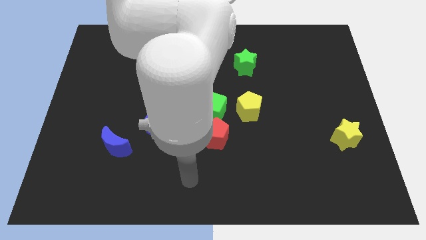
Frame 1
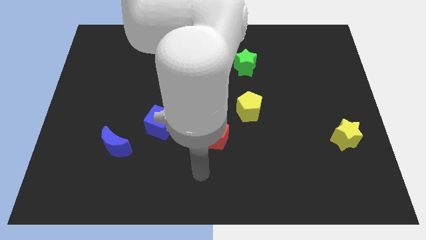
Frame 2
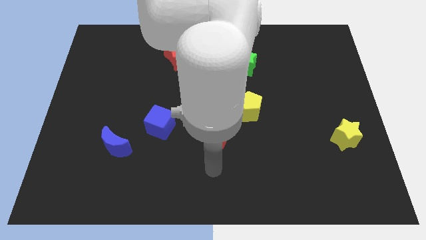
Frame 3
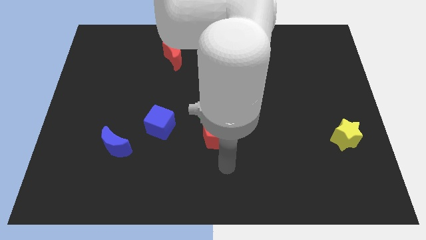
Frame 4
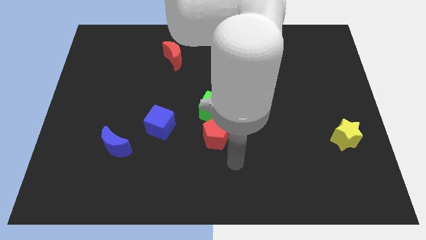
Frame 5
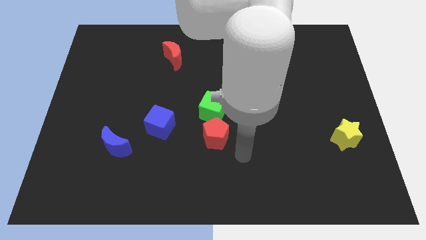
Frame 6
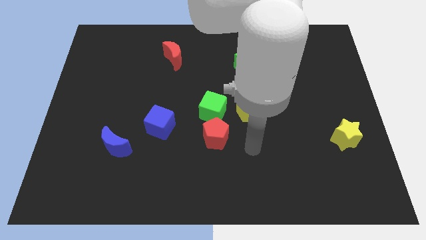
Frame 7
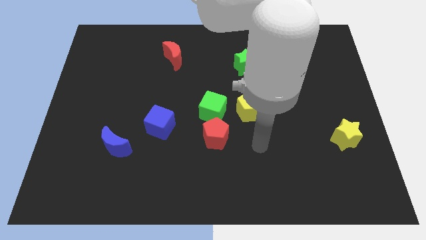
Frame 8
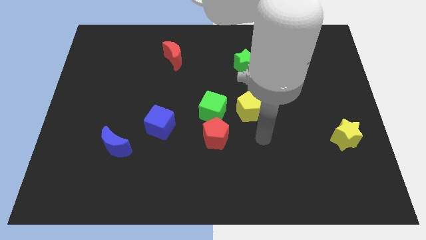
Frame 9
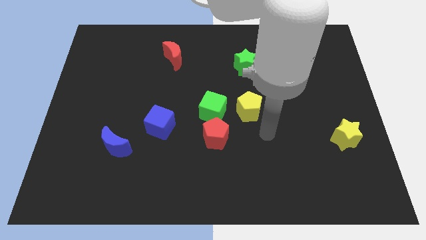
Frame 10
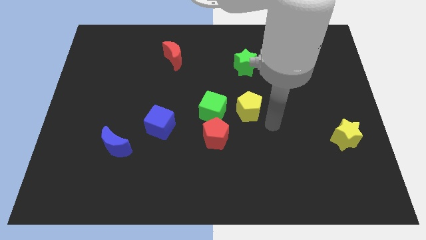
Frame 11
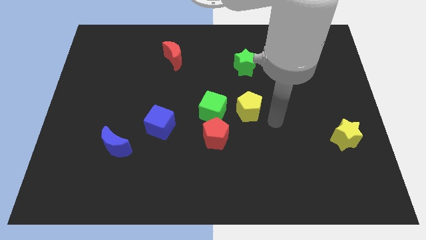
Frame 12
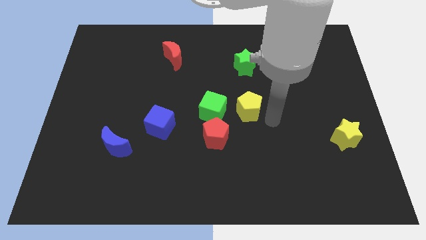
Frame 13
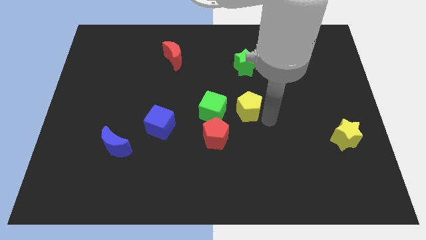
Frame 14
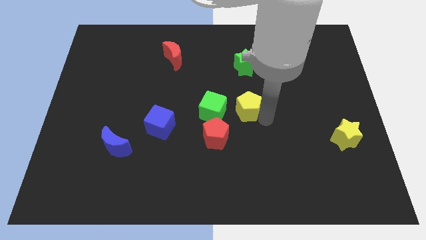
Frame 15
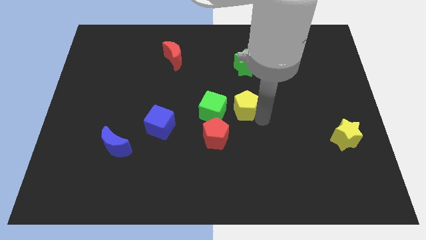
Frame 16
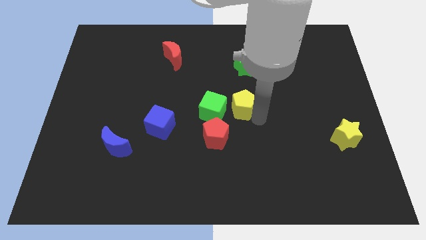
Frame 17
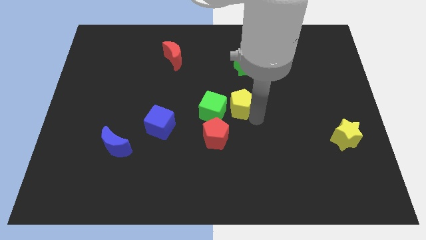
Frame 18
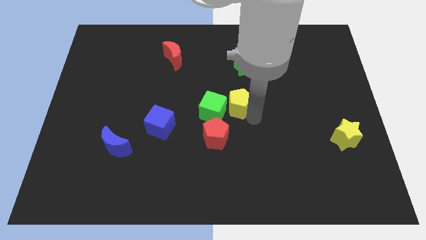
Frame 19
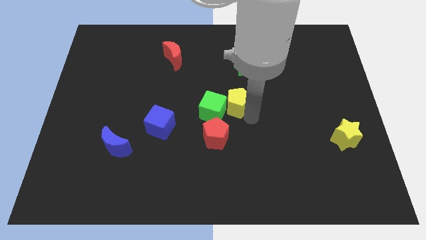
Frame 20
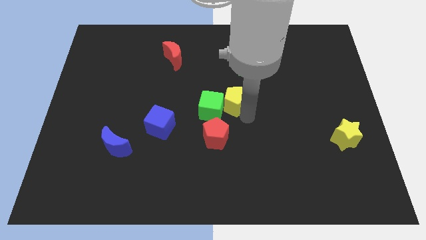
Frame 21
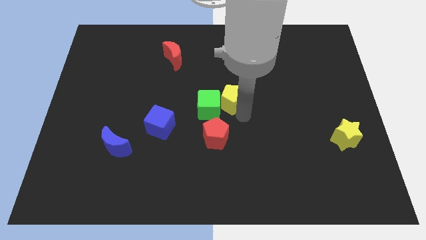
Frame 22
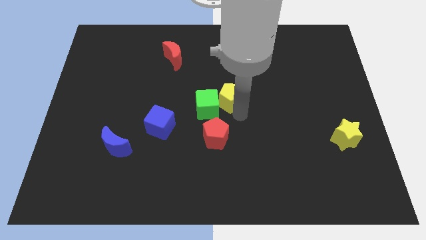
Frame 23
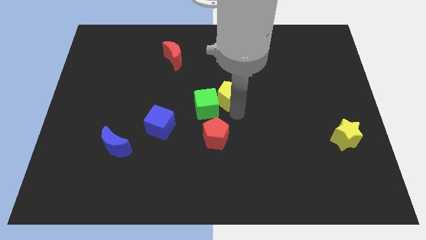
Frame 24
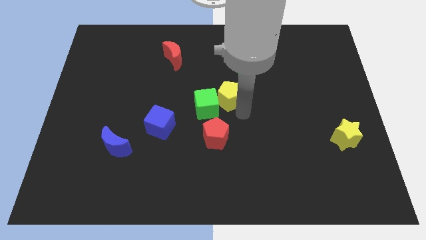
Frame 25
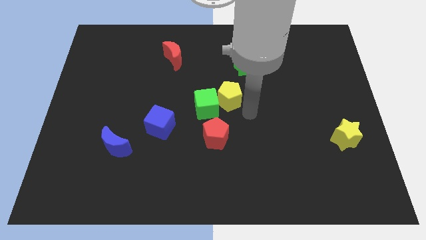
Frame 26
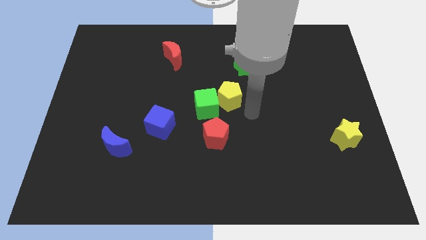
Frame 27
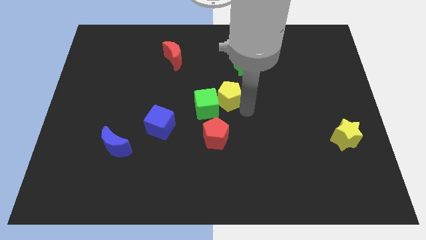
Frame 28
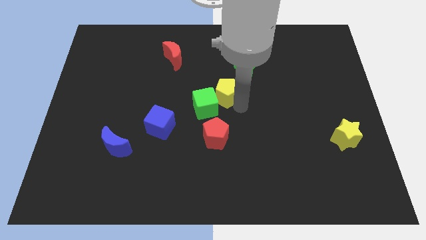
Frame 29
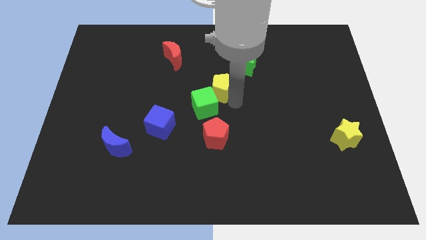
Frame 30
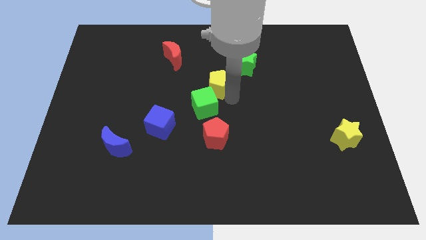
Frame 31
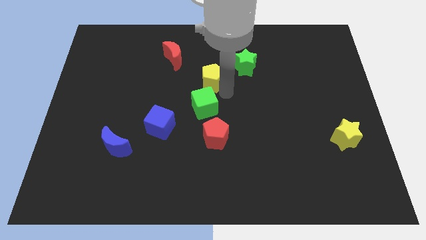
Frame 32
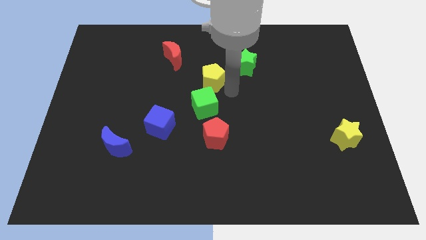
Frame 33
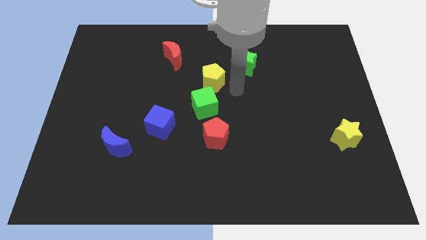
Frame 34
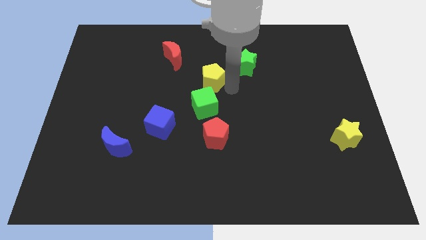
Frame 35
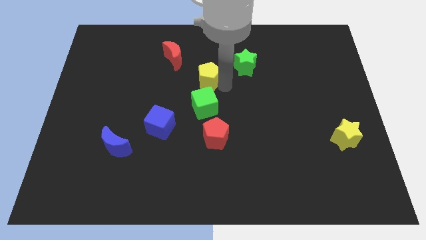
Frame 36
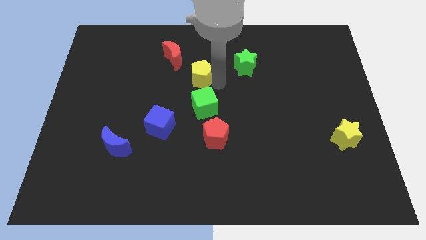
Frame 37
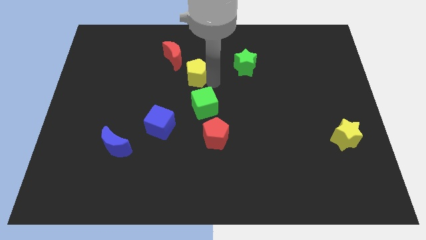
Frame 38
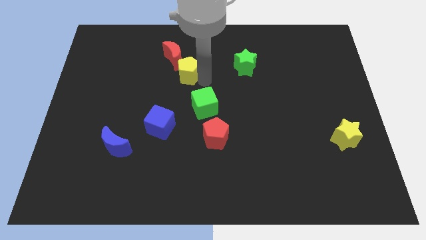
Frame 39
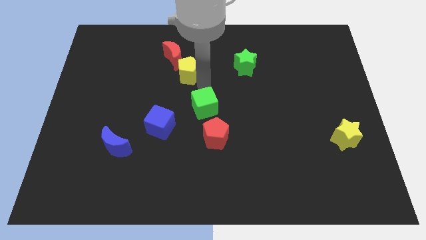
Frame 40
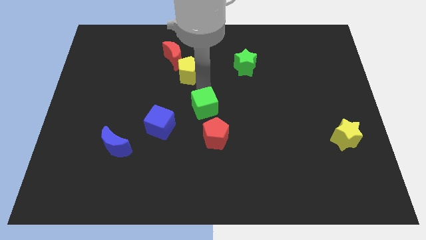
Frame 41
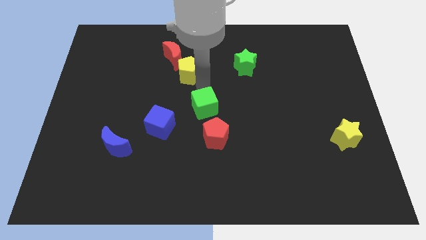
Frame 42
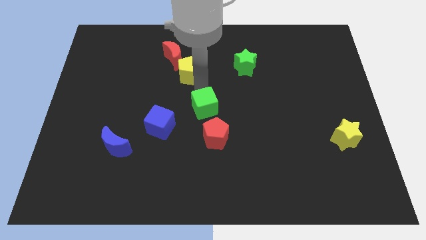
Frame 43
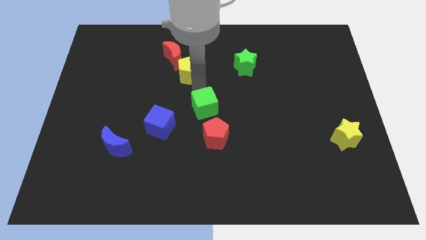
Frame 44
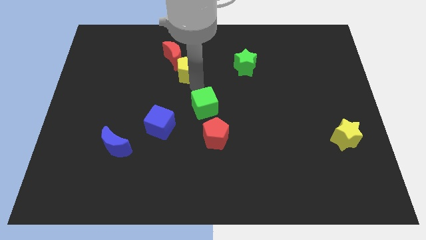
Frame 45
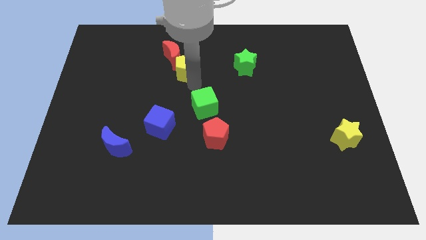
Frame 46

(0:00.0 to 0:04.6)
push the yellow pentagon towards the red moon

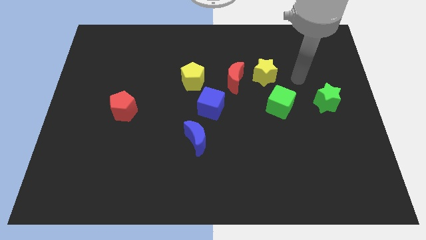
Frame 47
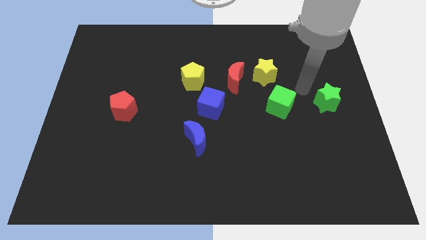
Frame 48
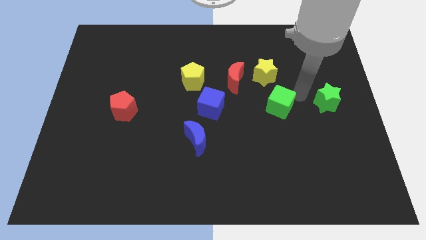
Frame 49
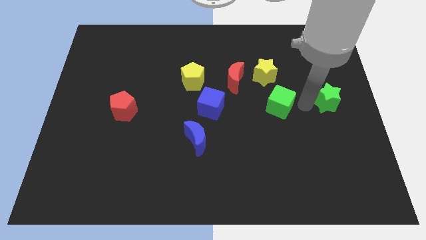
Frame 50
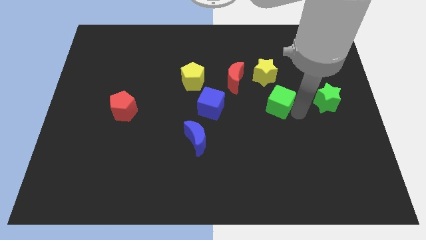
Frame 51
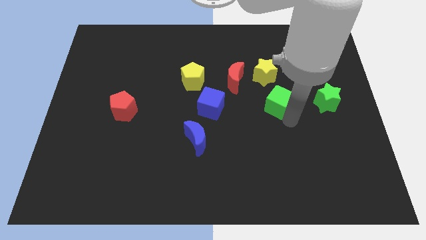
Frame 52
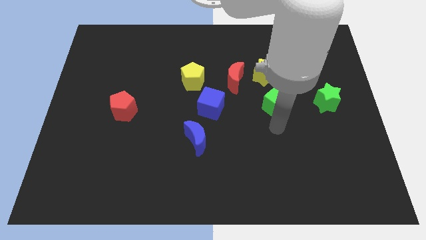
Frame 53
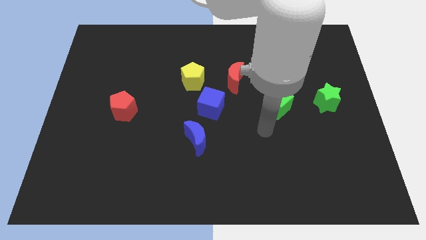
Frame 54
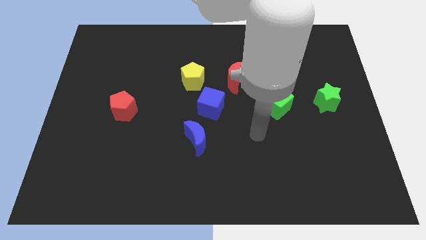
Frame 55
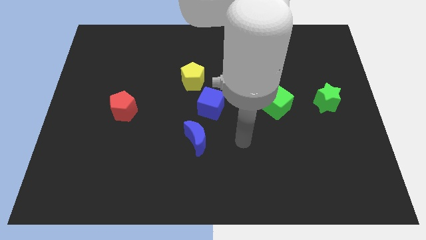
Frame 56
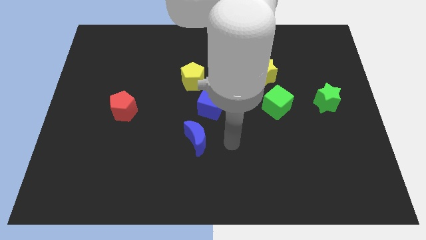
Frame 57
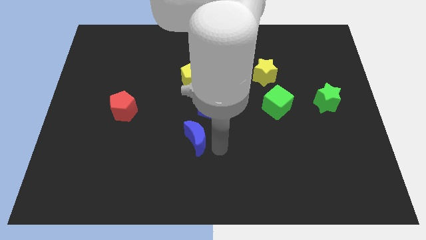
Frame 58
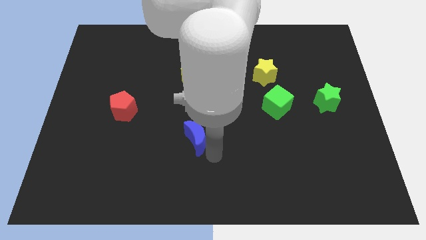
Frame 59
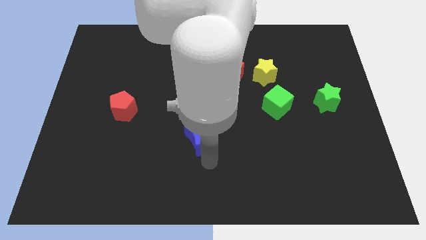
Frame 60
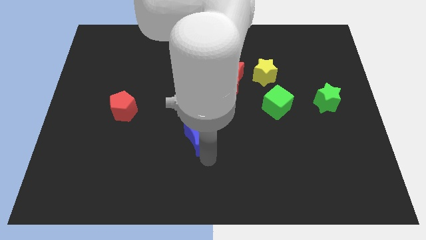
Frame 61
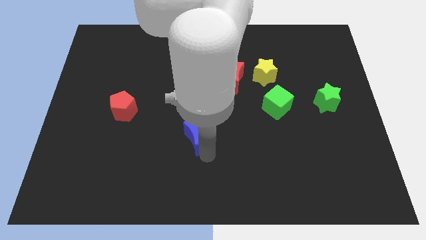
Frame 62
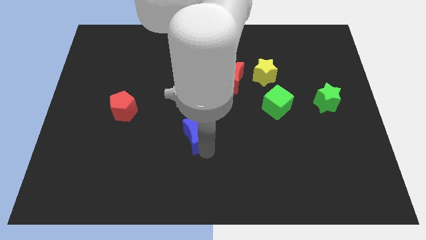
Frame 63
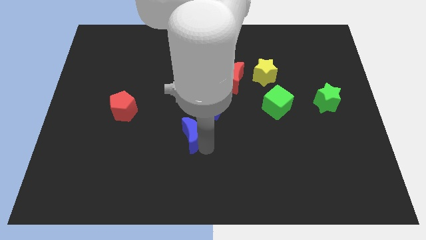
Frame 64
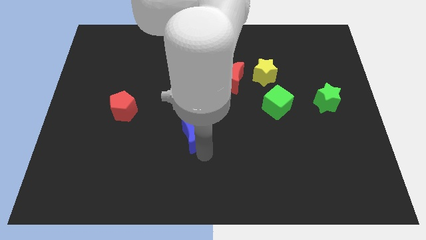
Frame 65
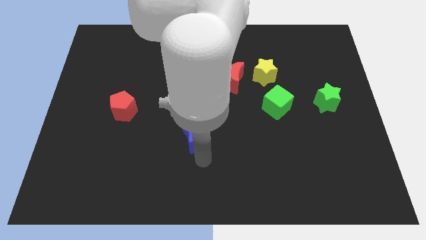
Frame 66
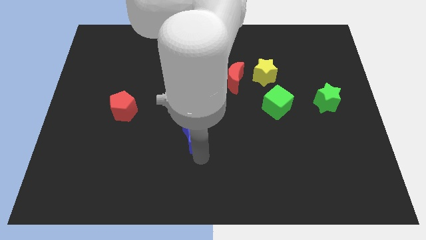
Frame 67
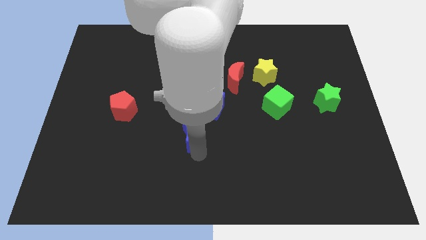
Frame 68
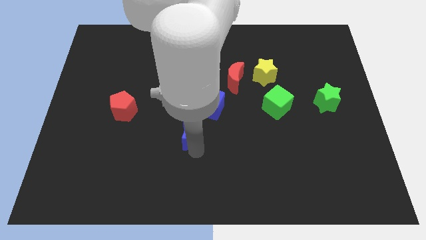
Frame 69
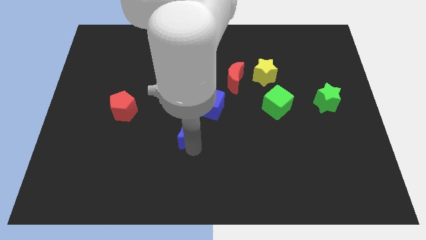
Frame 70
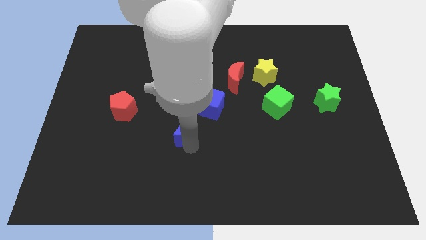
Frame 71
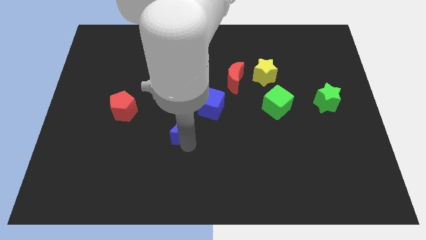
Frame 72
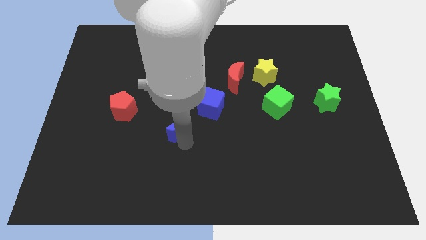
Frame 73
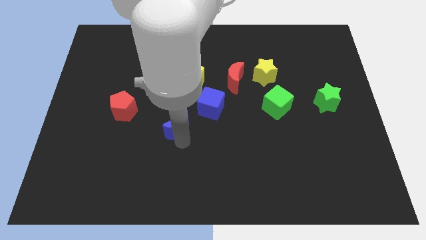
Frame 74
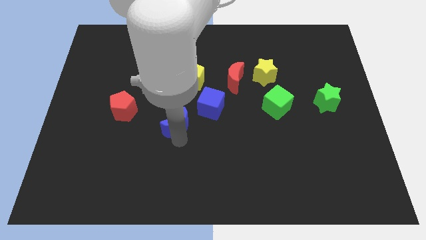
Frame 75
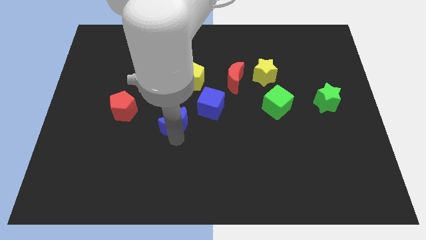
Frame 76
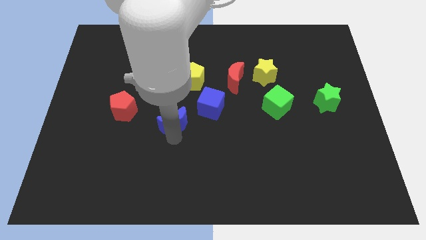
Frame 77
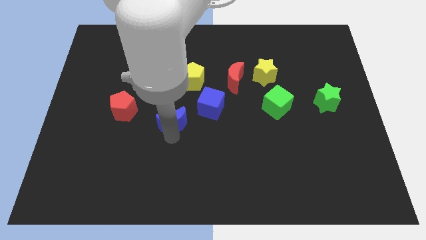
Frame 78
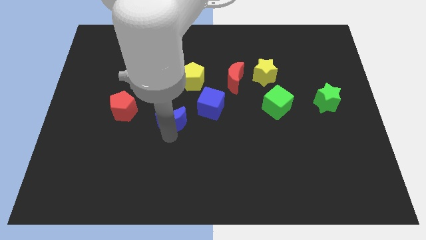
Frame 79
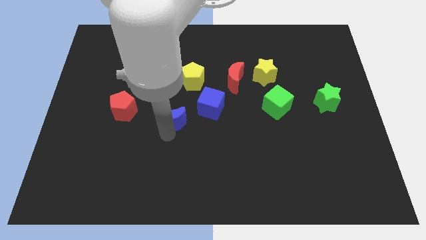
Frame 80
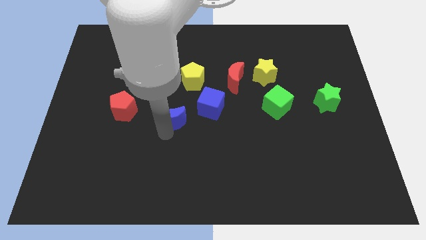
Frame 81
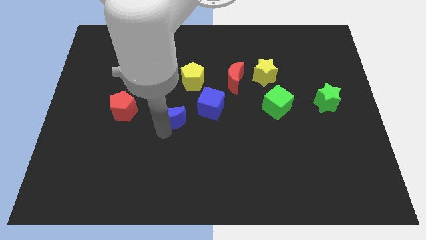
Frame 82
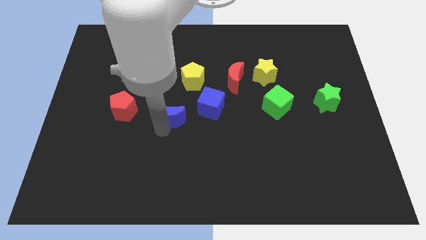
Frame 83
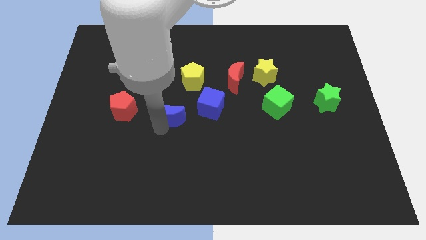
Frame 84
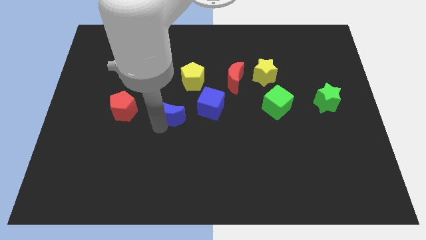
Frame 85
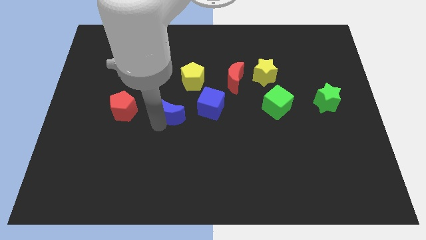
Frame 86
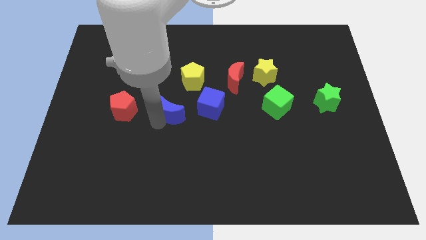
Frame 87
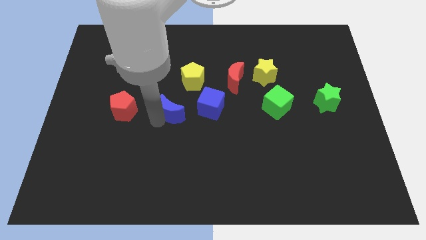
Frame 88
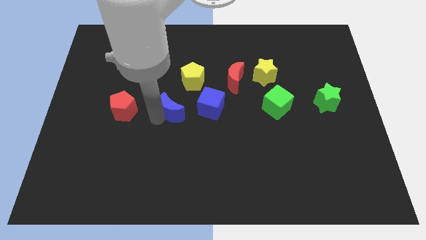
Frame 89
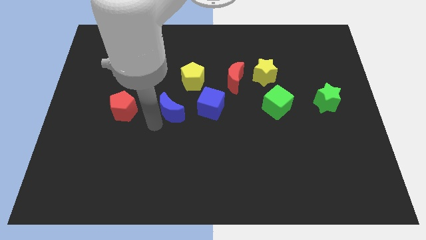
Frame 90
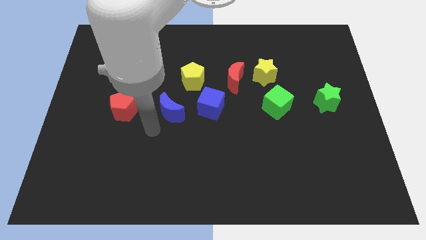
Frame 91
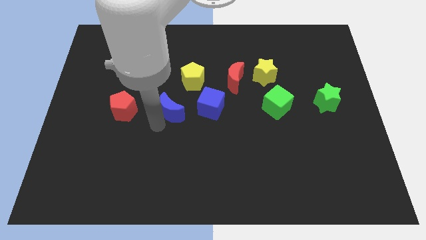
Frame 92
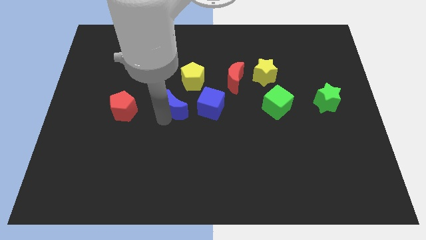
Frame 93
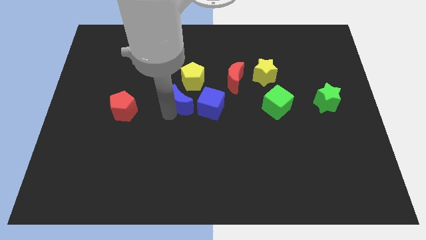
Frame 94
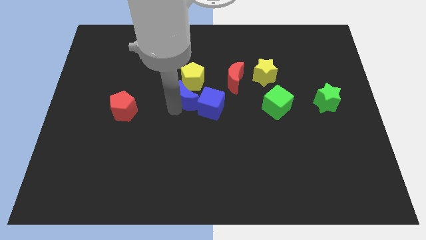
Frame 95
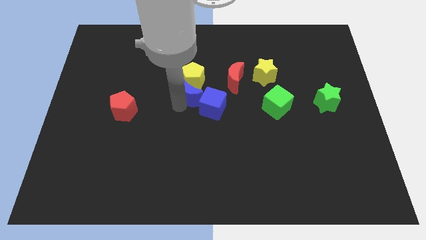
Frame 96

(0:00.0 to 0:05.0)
move the blue moon to the yellow pentagon
